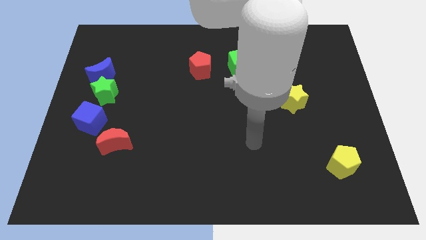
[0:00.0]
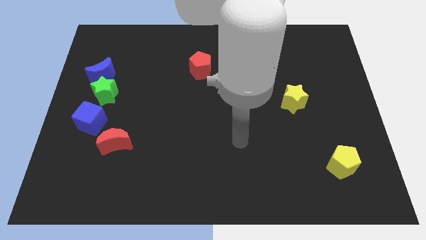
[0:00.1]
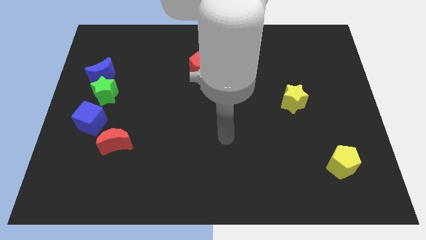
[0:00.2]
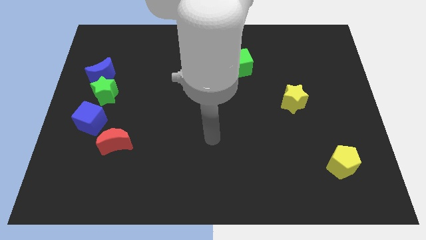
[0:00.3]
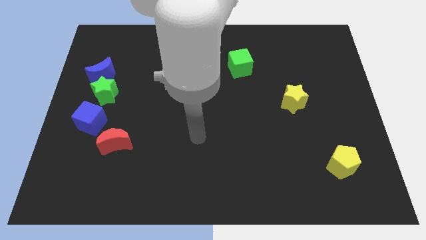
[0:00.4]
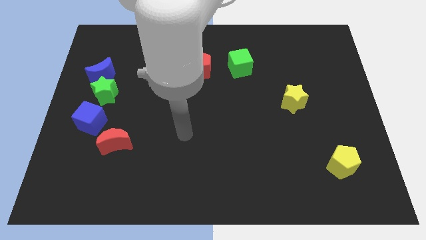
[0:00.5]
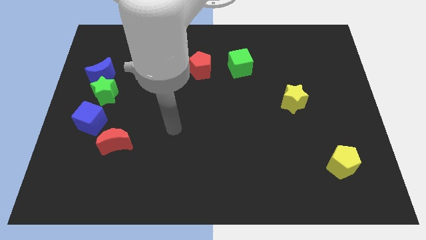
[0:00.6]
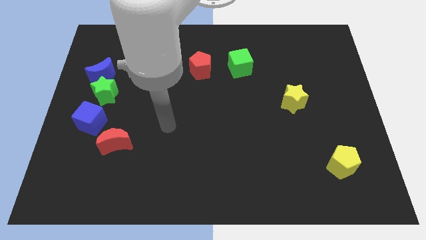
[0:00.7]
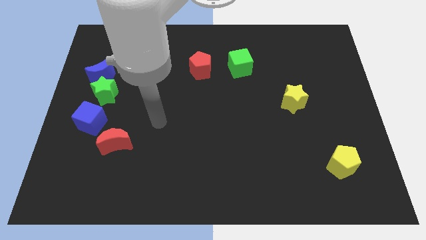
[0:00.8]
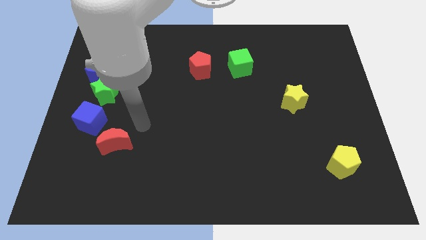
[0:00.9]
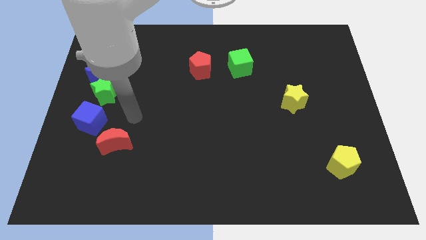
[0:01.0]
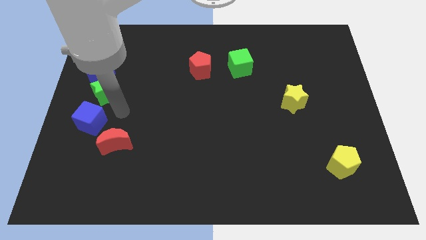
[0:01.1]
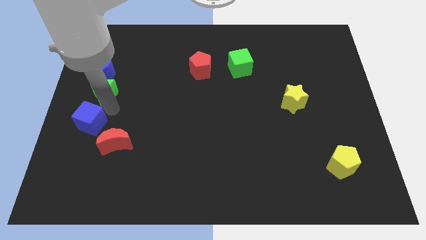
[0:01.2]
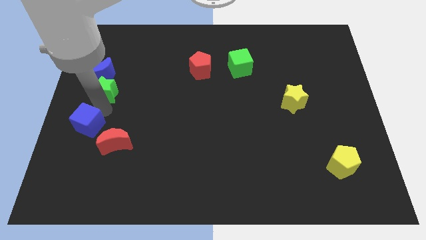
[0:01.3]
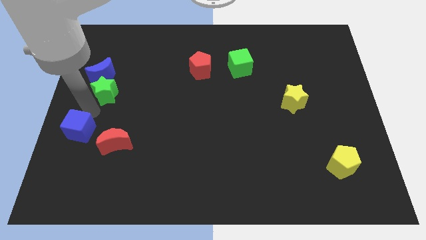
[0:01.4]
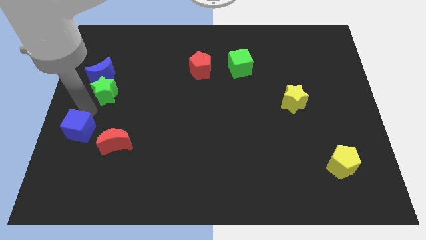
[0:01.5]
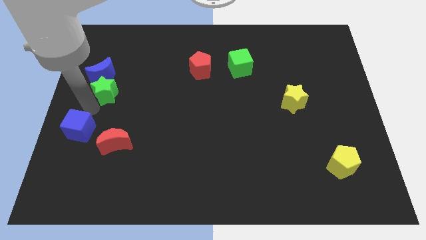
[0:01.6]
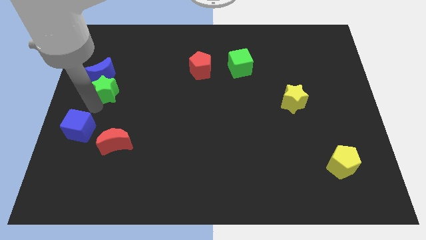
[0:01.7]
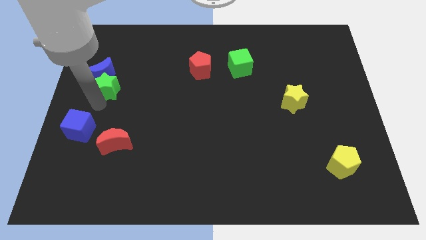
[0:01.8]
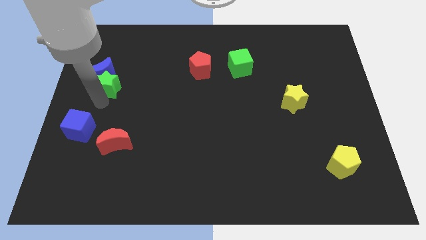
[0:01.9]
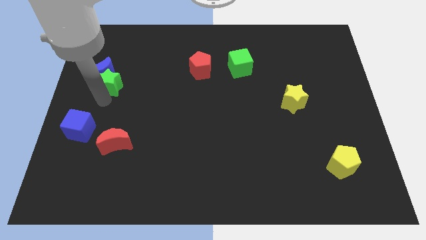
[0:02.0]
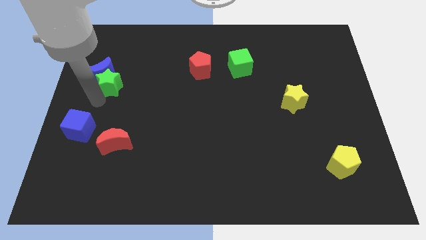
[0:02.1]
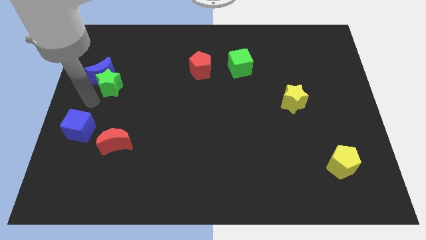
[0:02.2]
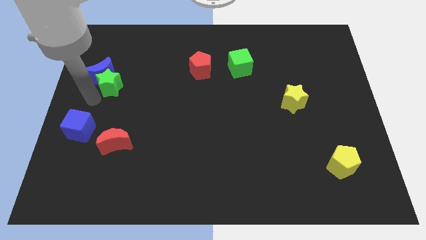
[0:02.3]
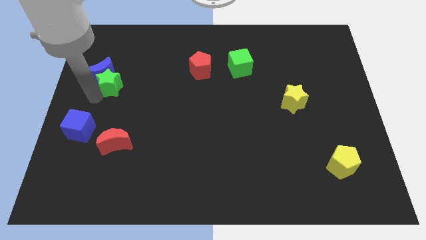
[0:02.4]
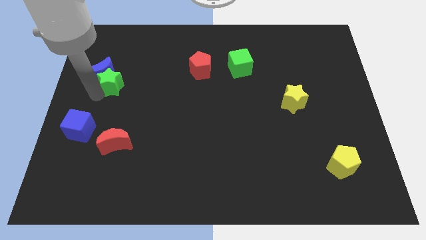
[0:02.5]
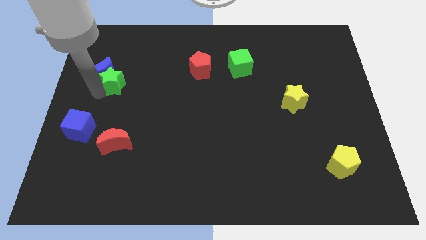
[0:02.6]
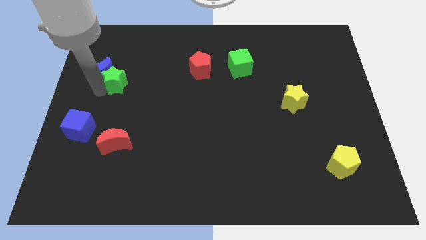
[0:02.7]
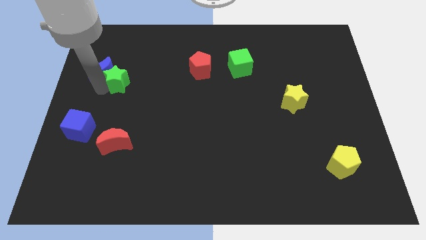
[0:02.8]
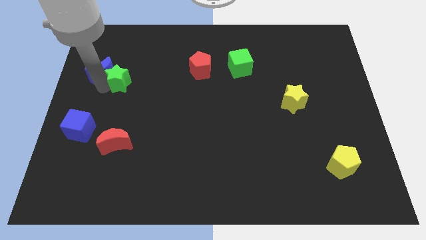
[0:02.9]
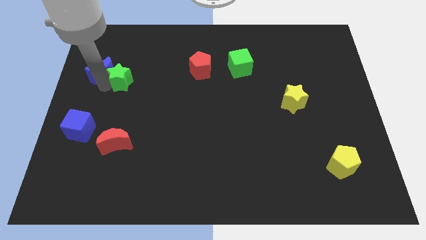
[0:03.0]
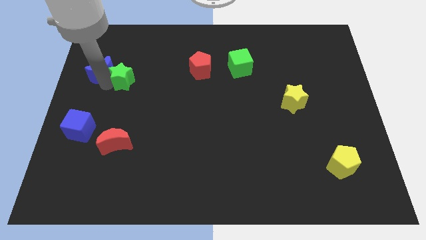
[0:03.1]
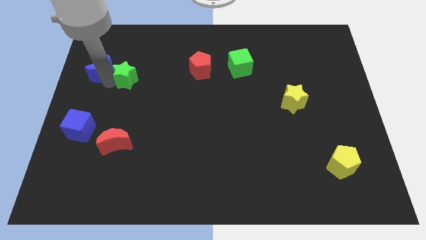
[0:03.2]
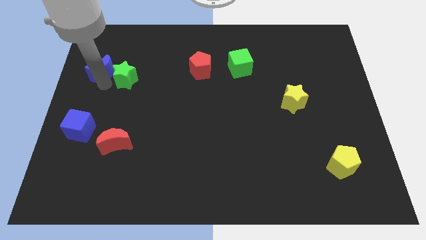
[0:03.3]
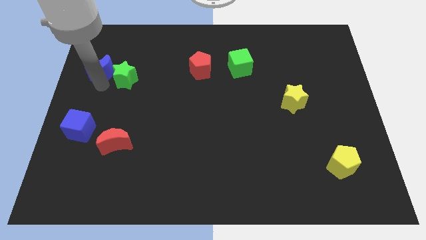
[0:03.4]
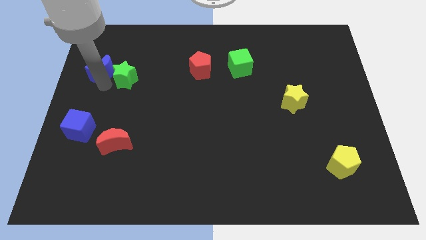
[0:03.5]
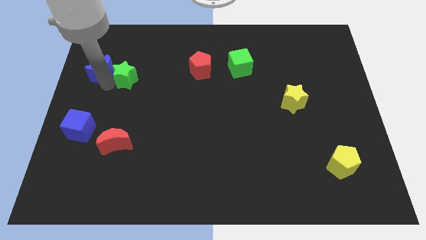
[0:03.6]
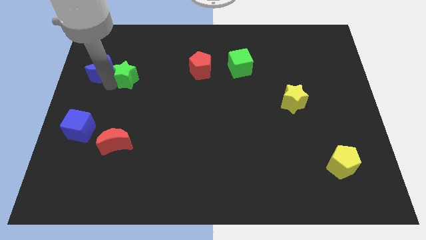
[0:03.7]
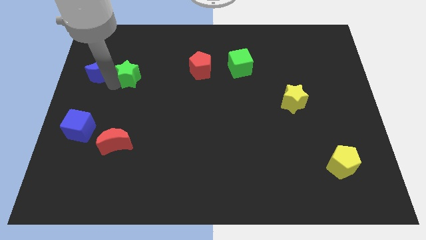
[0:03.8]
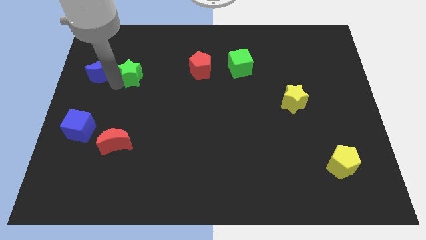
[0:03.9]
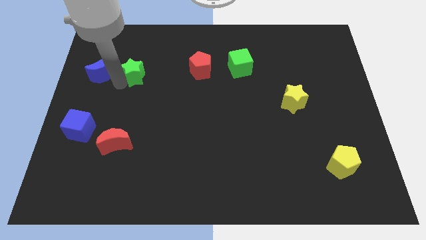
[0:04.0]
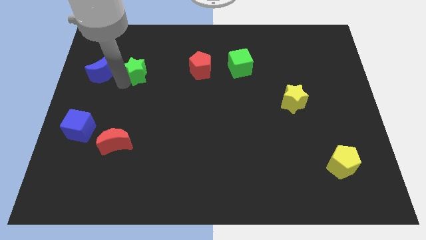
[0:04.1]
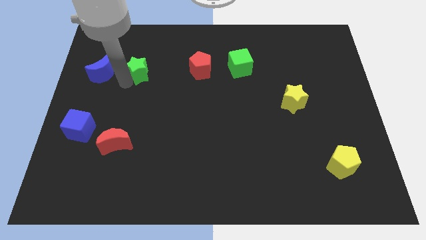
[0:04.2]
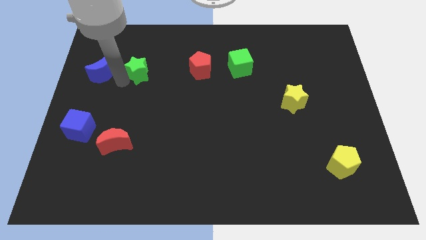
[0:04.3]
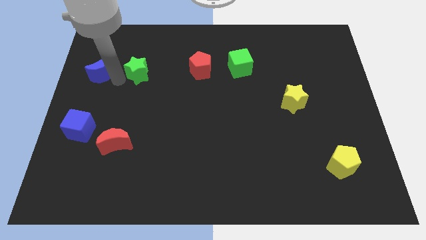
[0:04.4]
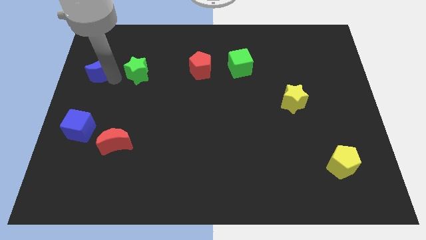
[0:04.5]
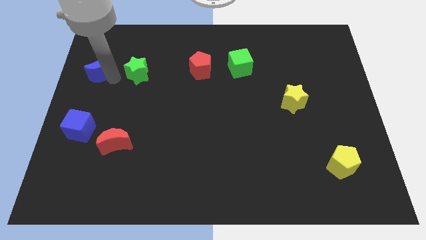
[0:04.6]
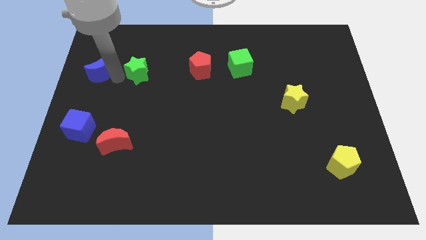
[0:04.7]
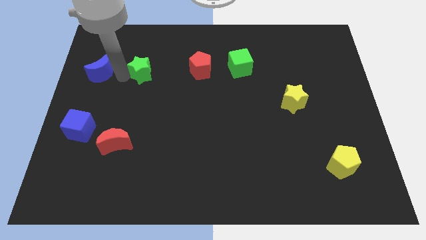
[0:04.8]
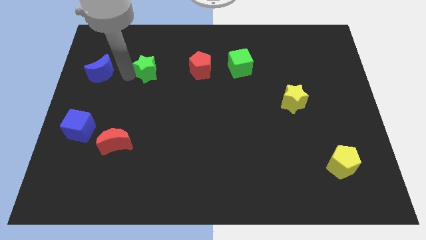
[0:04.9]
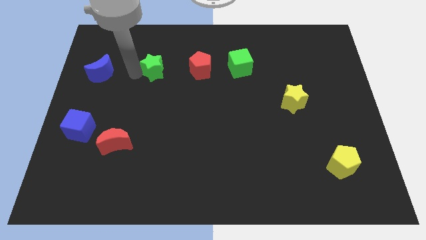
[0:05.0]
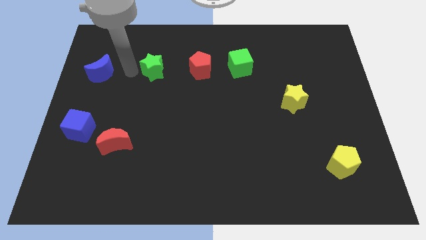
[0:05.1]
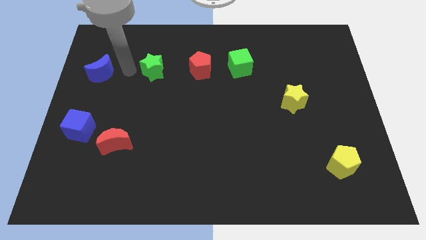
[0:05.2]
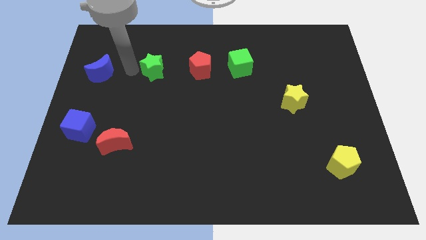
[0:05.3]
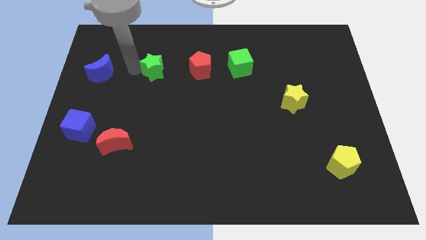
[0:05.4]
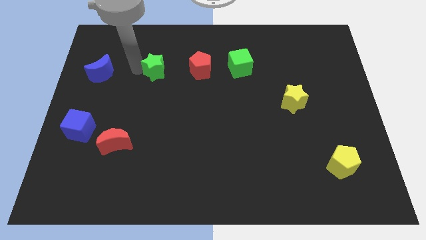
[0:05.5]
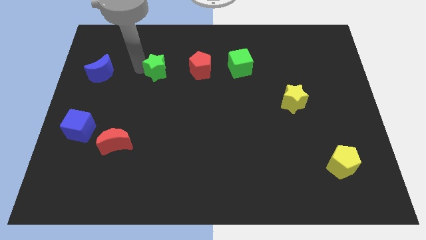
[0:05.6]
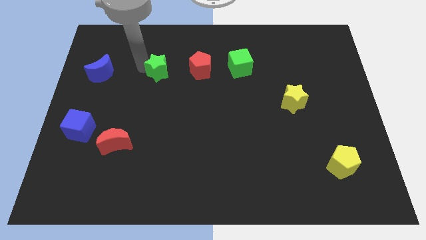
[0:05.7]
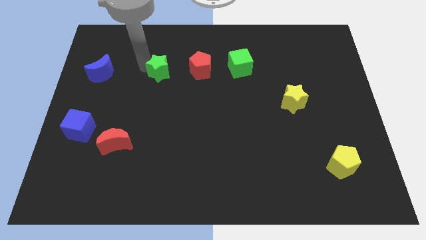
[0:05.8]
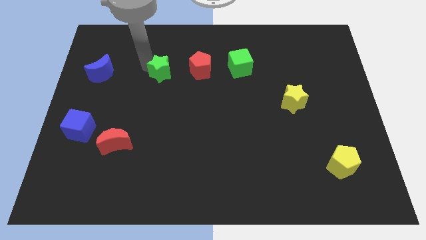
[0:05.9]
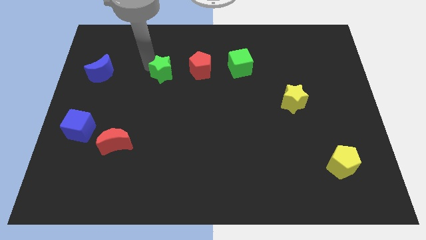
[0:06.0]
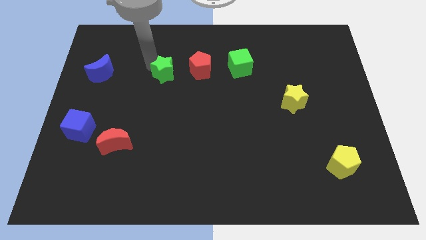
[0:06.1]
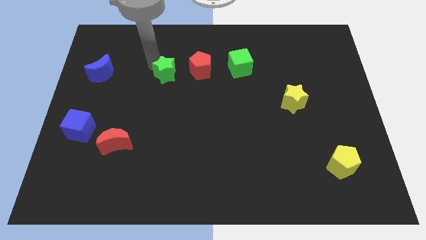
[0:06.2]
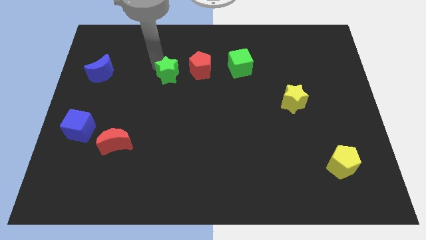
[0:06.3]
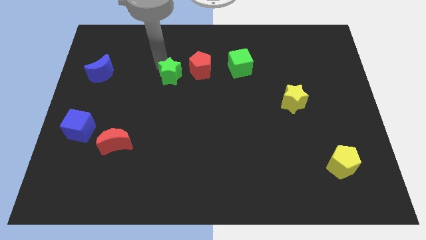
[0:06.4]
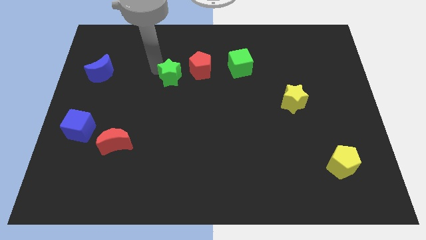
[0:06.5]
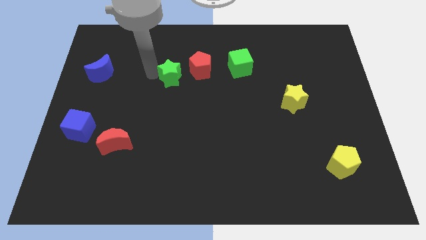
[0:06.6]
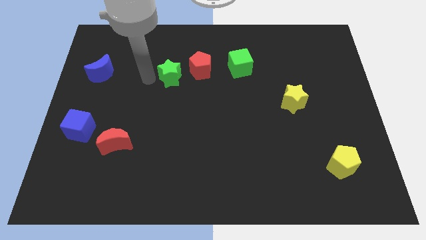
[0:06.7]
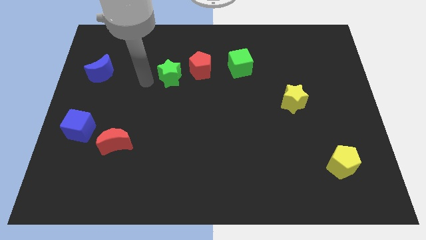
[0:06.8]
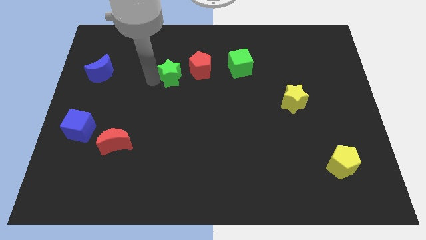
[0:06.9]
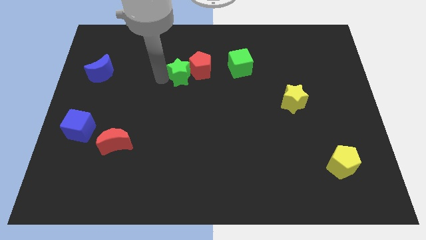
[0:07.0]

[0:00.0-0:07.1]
slide the green star to the red pentagon
